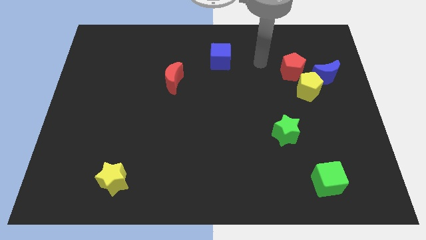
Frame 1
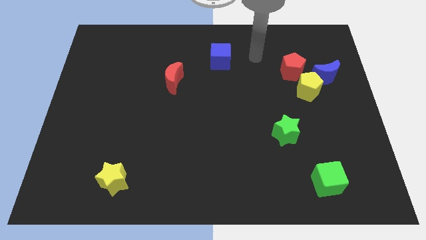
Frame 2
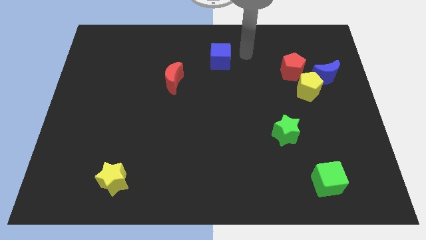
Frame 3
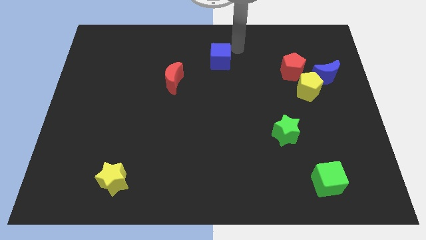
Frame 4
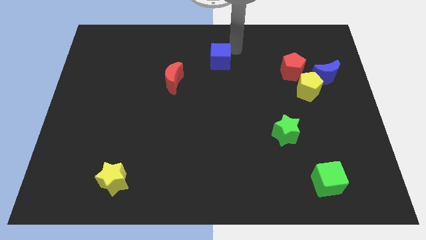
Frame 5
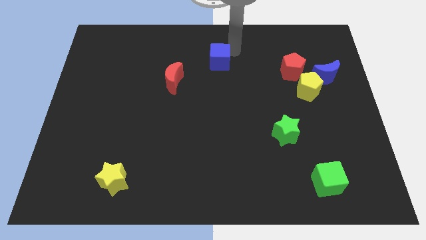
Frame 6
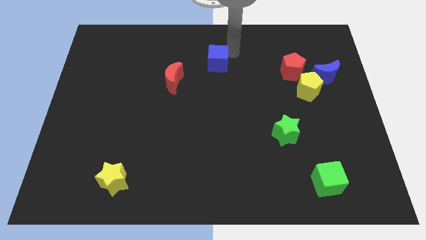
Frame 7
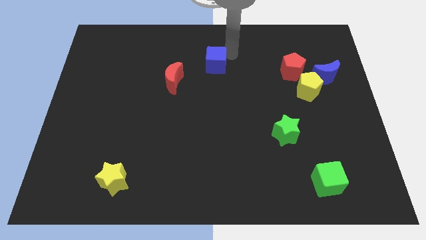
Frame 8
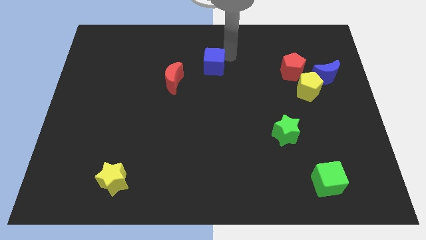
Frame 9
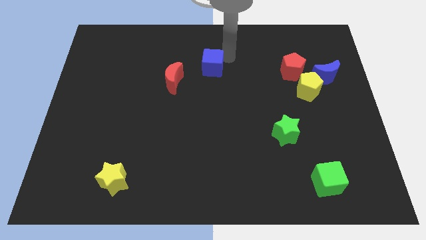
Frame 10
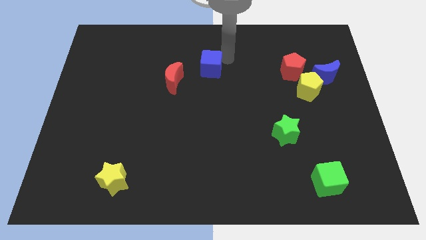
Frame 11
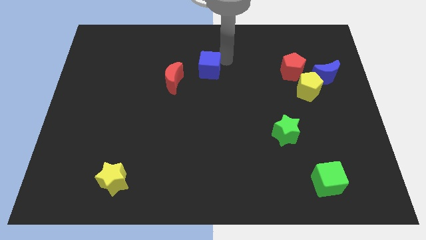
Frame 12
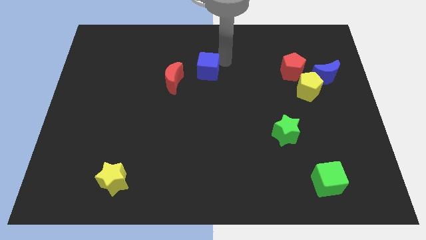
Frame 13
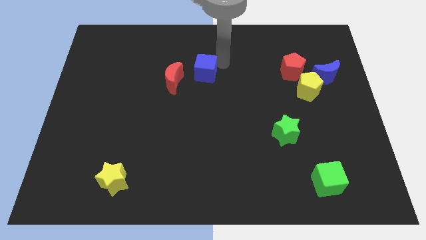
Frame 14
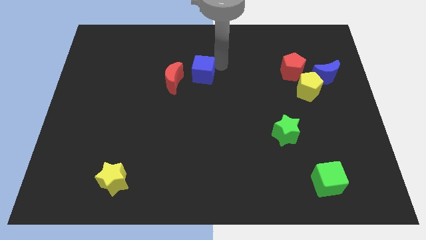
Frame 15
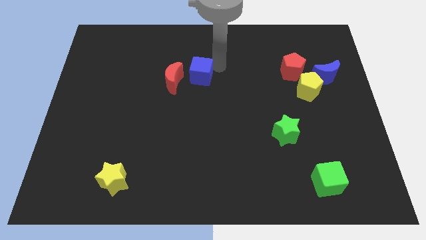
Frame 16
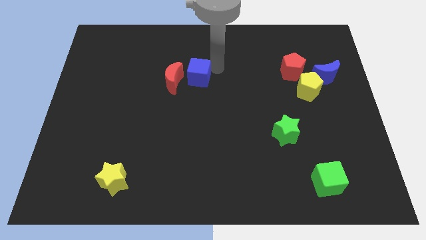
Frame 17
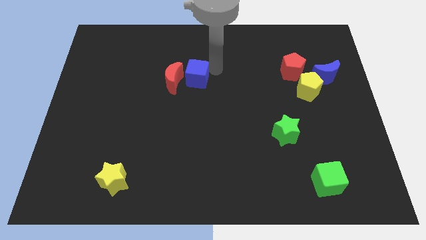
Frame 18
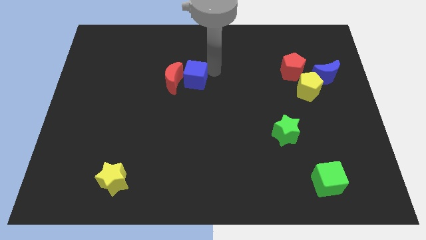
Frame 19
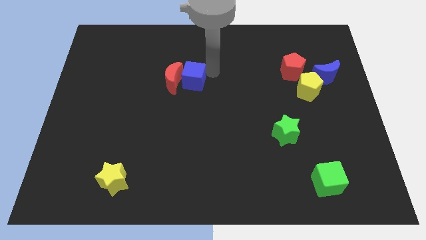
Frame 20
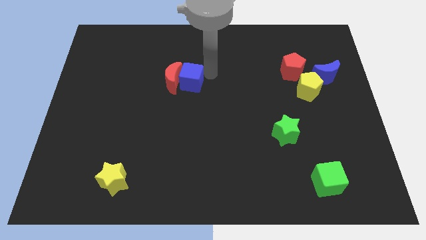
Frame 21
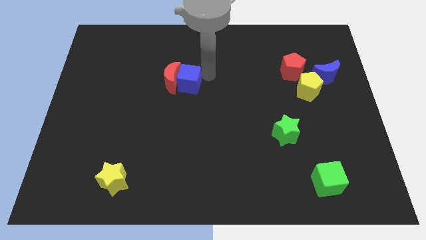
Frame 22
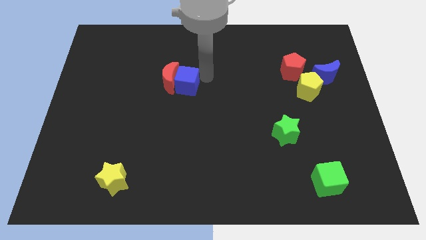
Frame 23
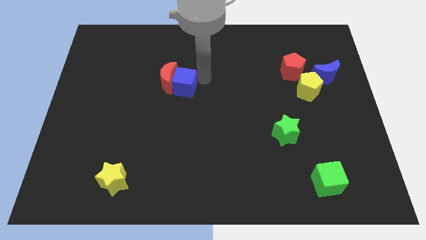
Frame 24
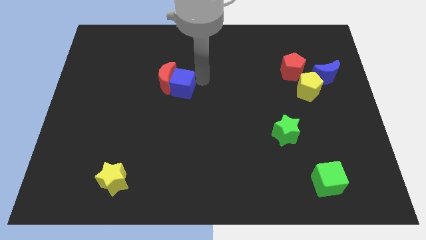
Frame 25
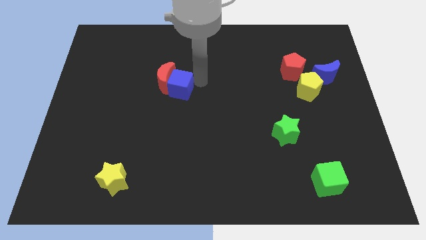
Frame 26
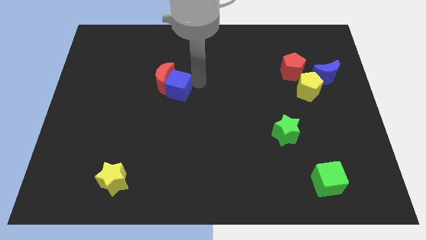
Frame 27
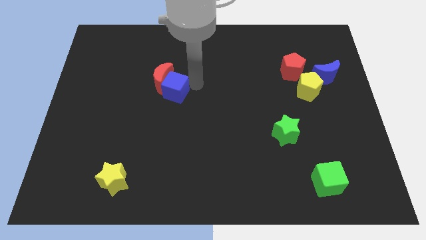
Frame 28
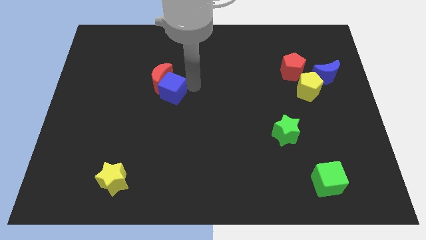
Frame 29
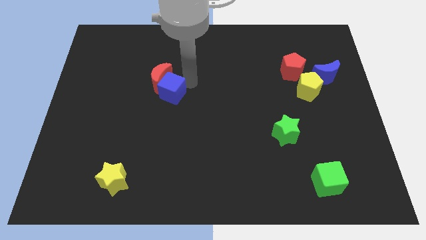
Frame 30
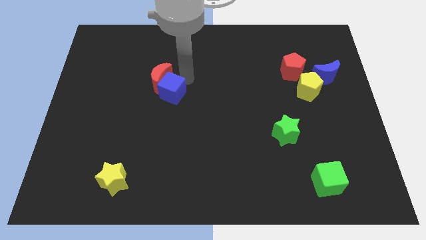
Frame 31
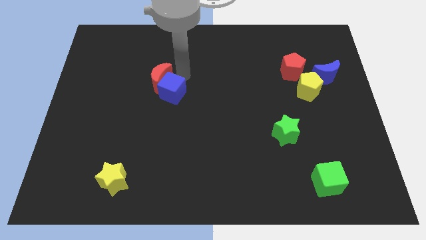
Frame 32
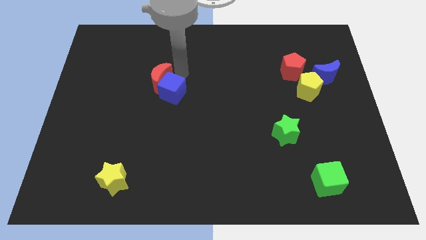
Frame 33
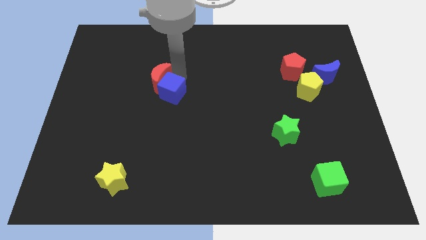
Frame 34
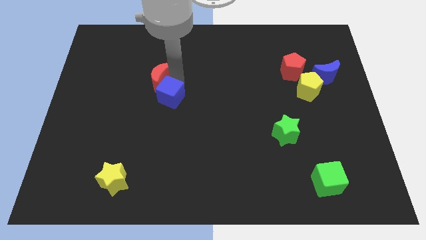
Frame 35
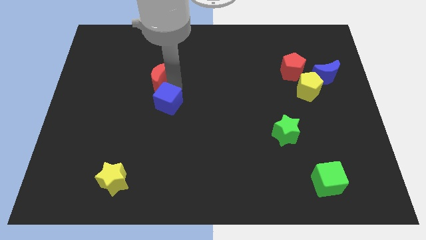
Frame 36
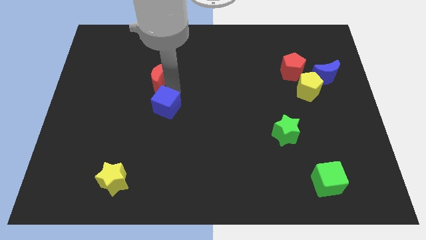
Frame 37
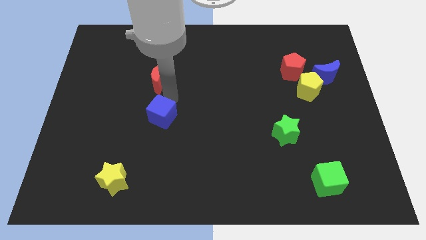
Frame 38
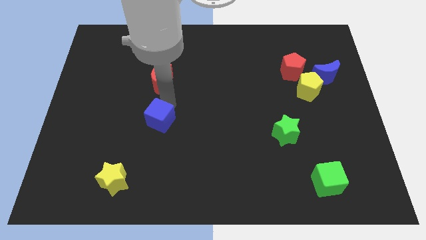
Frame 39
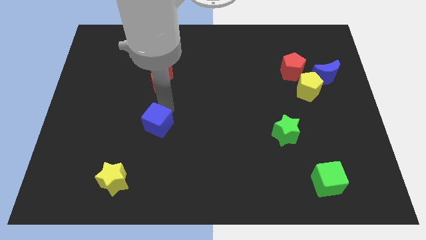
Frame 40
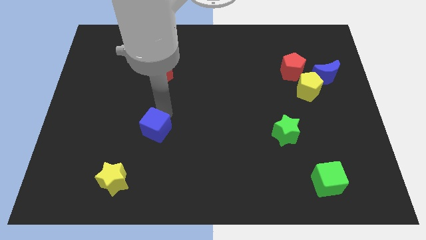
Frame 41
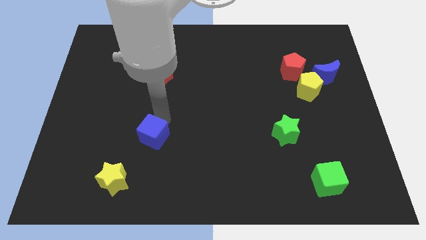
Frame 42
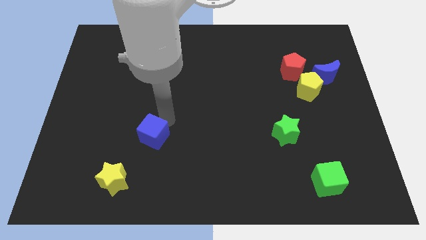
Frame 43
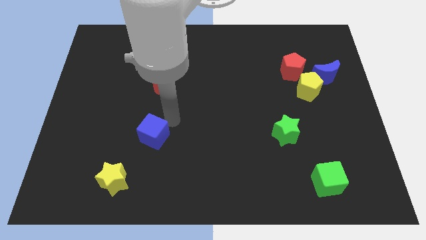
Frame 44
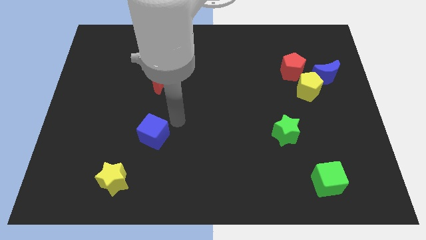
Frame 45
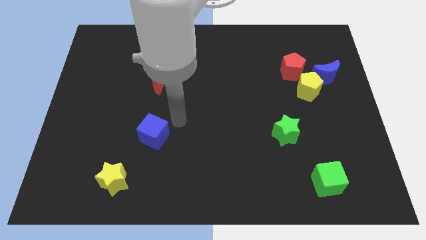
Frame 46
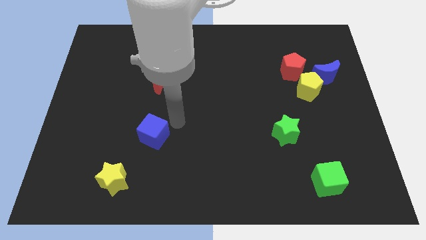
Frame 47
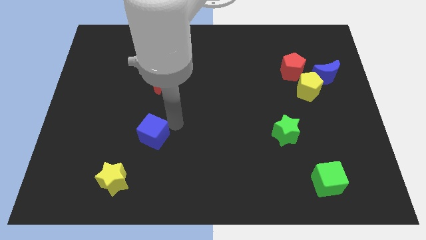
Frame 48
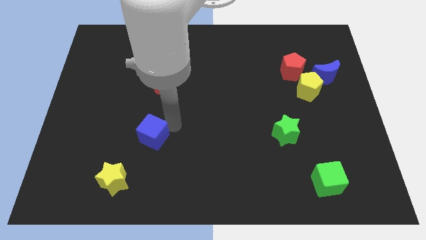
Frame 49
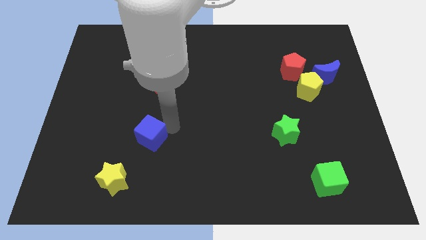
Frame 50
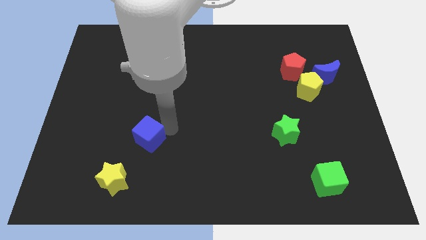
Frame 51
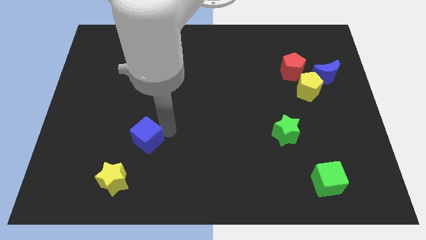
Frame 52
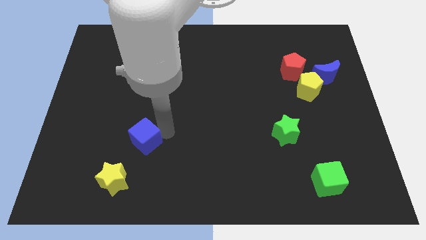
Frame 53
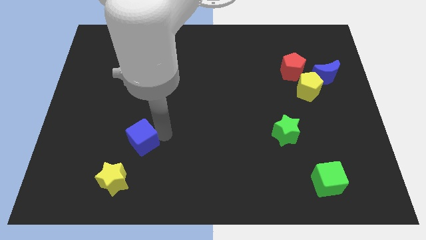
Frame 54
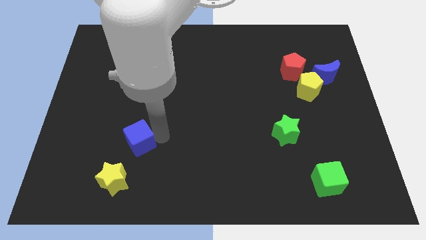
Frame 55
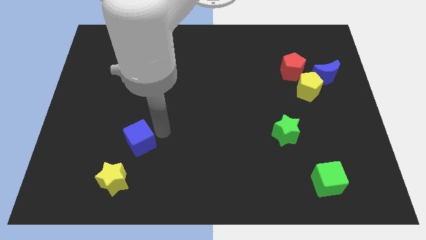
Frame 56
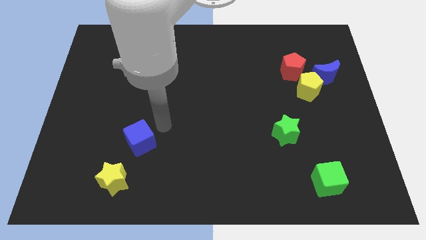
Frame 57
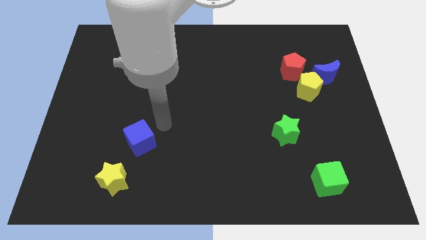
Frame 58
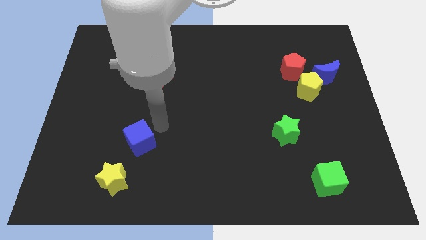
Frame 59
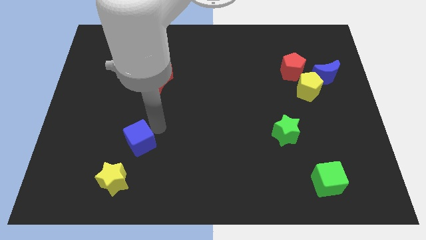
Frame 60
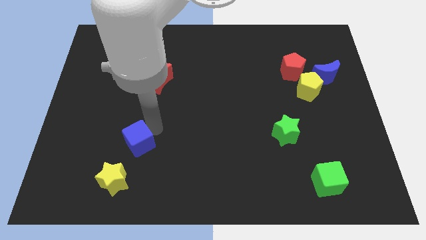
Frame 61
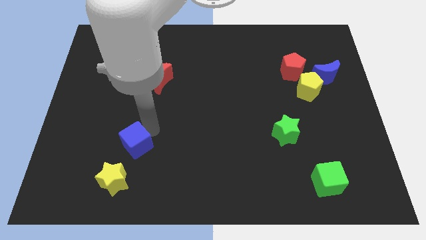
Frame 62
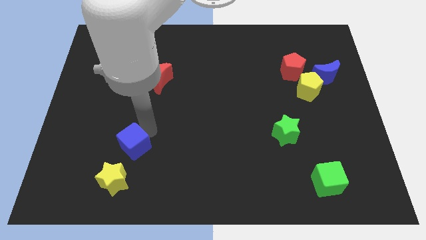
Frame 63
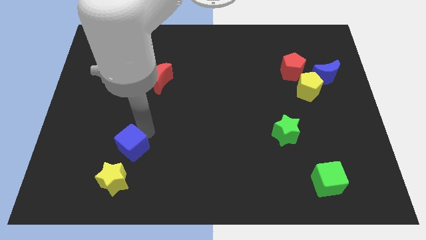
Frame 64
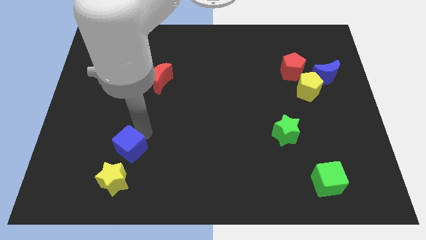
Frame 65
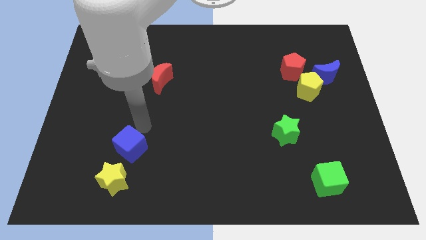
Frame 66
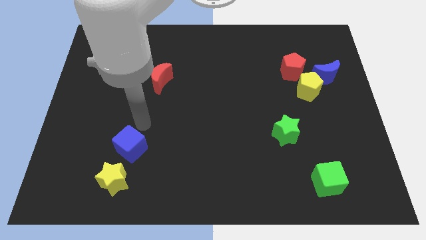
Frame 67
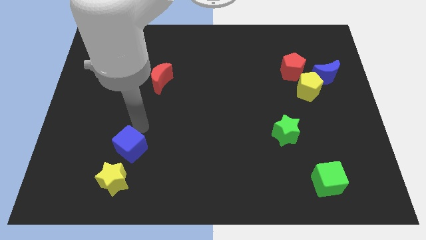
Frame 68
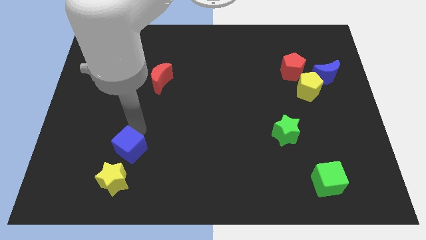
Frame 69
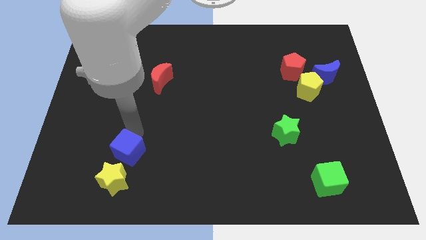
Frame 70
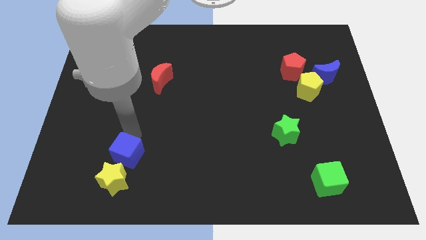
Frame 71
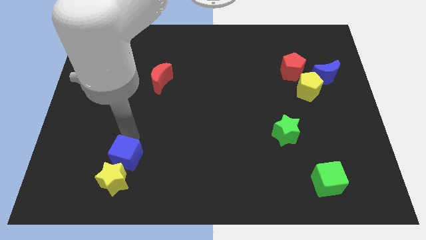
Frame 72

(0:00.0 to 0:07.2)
push the blue cube close to the yellow star

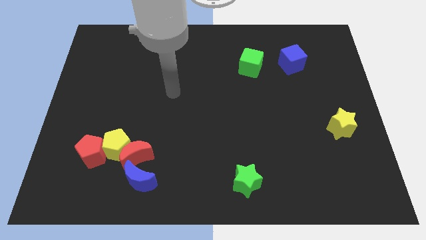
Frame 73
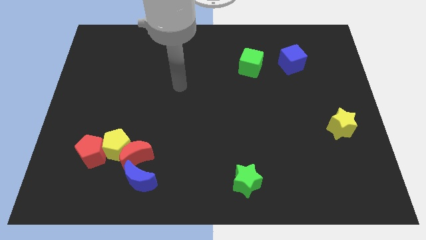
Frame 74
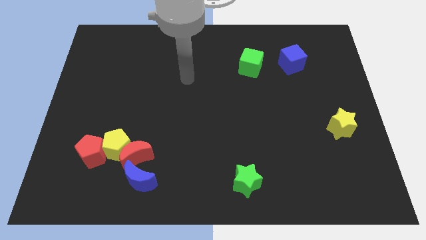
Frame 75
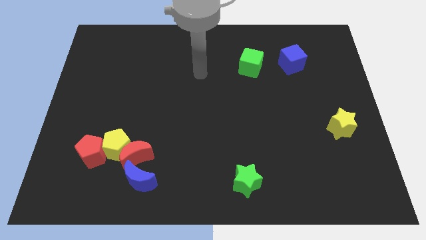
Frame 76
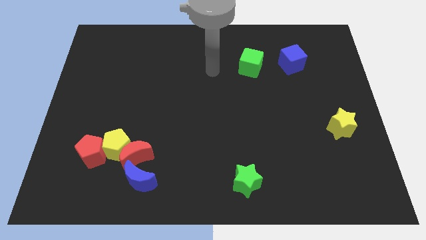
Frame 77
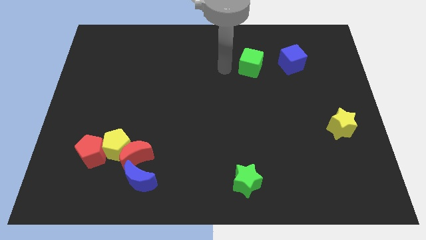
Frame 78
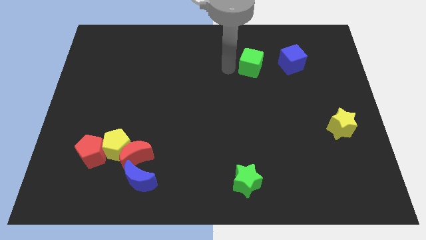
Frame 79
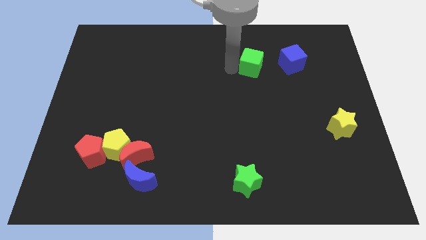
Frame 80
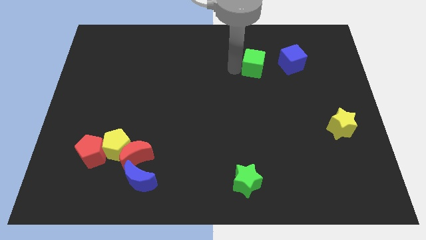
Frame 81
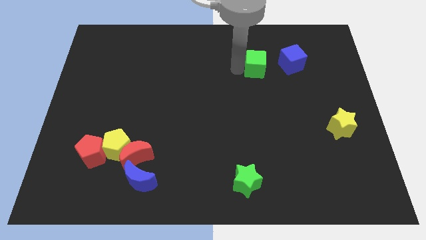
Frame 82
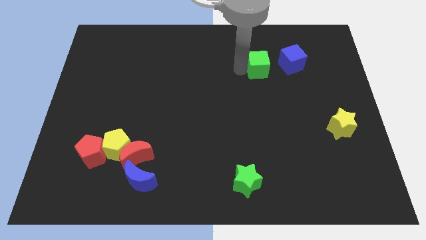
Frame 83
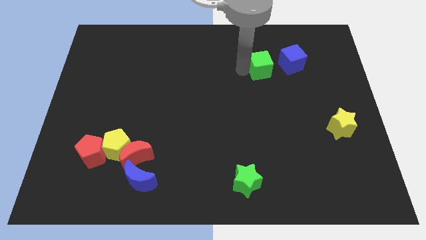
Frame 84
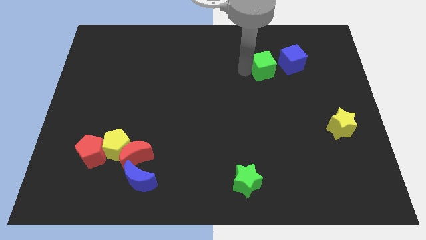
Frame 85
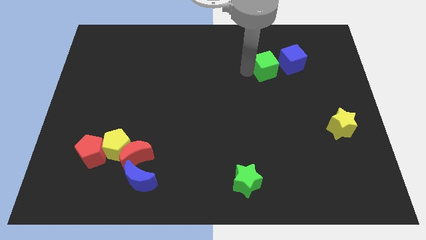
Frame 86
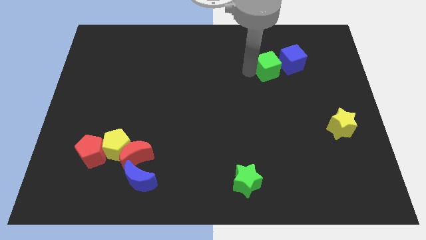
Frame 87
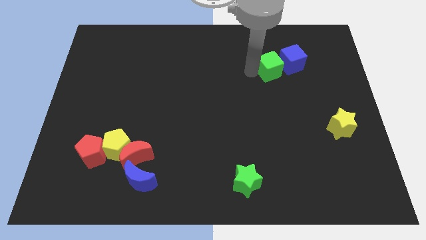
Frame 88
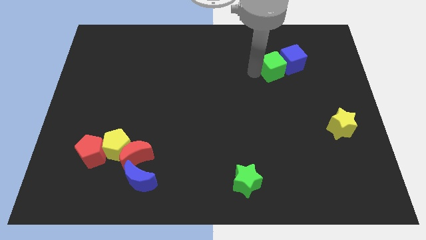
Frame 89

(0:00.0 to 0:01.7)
push the green cube to the blue cube
